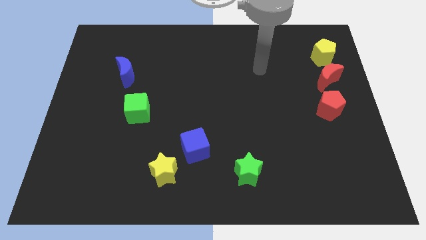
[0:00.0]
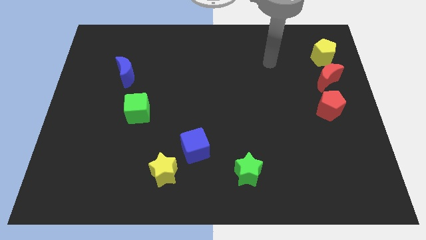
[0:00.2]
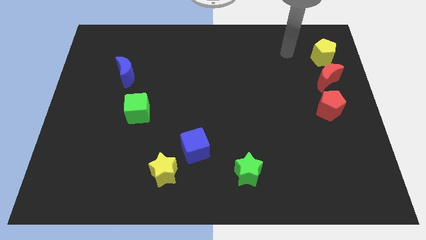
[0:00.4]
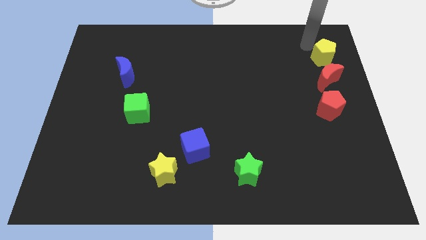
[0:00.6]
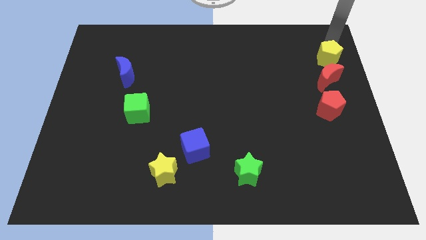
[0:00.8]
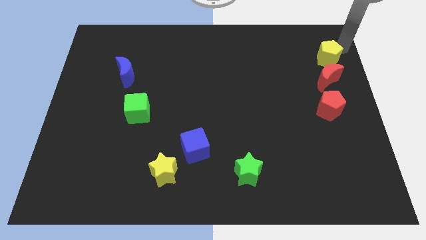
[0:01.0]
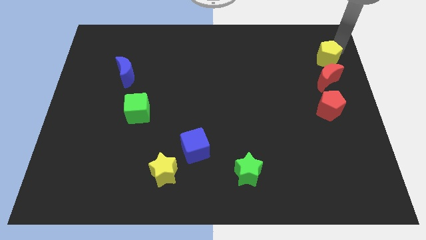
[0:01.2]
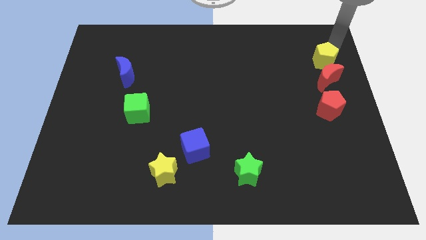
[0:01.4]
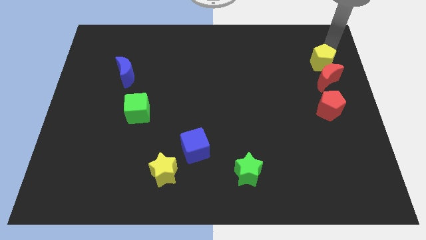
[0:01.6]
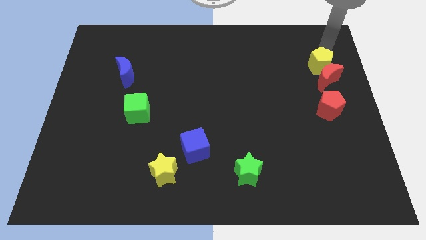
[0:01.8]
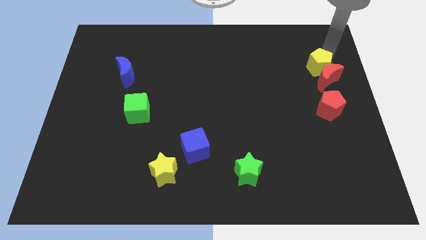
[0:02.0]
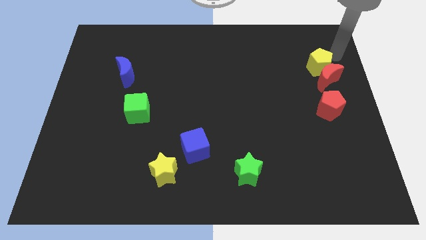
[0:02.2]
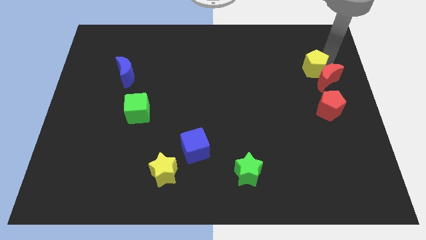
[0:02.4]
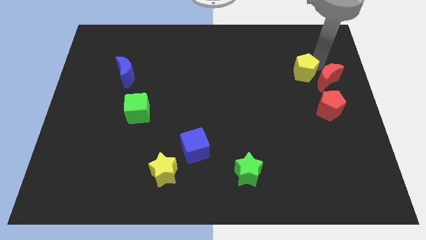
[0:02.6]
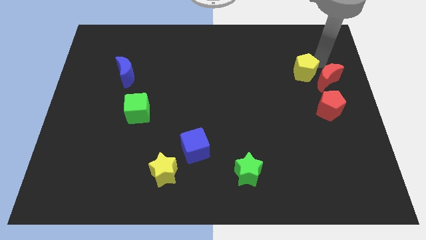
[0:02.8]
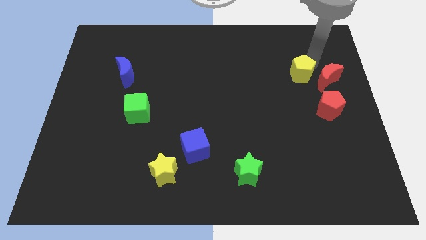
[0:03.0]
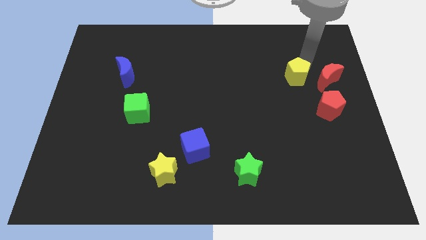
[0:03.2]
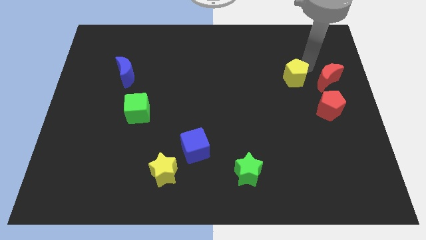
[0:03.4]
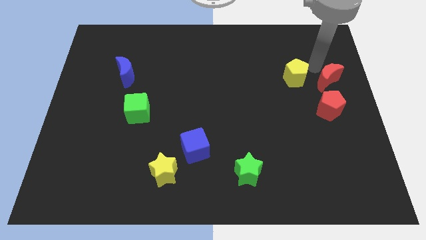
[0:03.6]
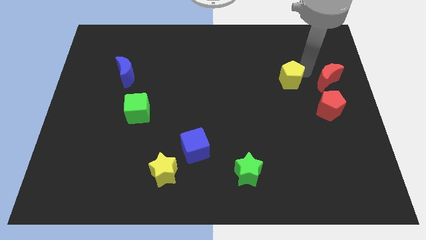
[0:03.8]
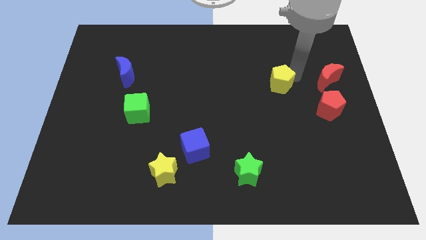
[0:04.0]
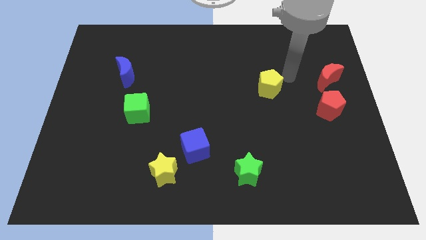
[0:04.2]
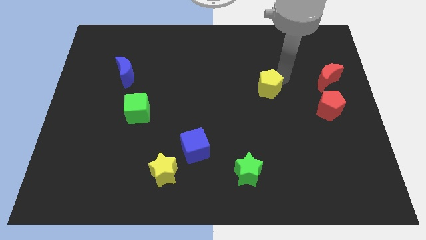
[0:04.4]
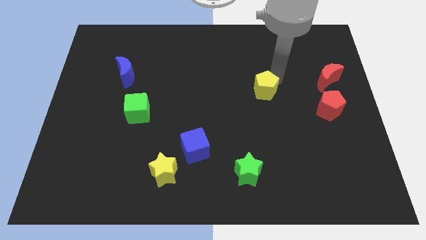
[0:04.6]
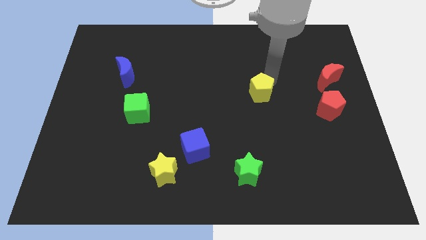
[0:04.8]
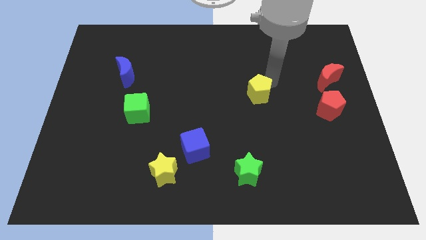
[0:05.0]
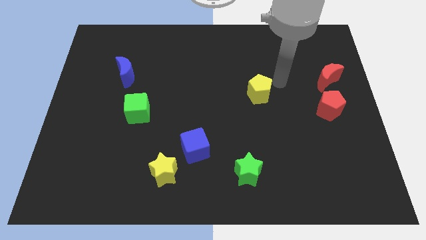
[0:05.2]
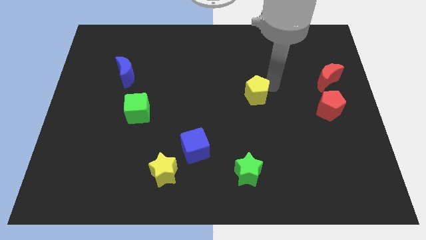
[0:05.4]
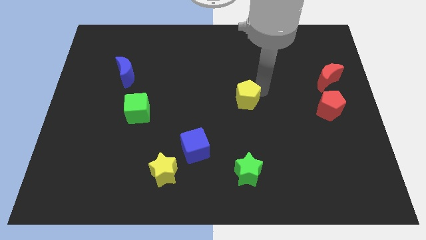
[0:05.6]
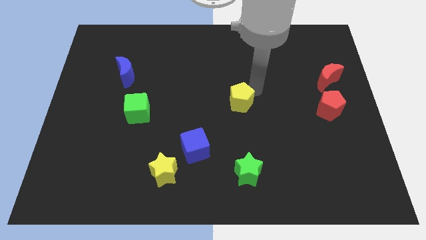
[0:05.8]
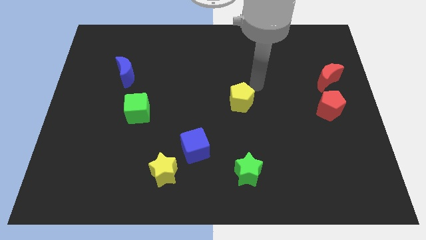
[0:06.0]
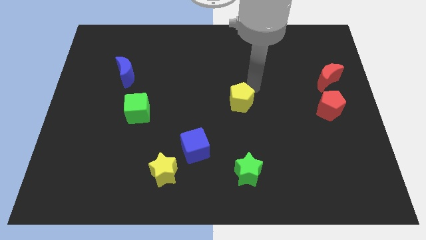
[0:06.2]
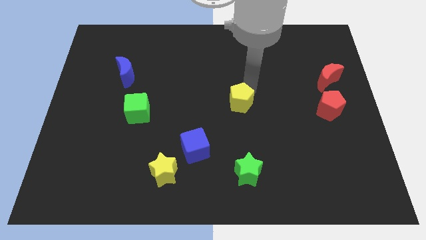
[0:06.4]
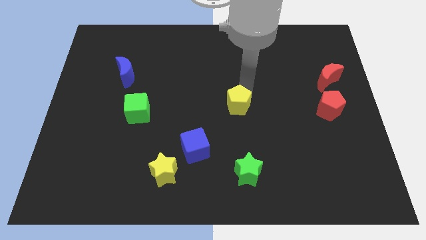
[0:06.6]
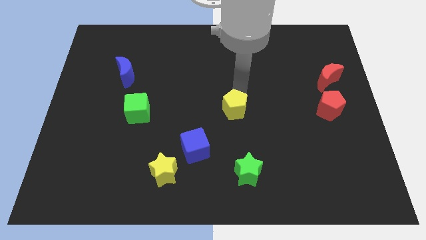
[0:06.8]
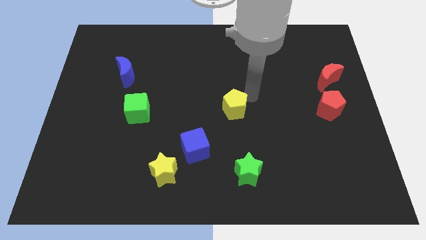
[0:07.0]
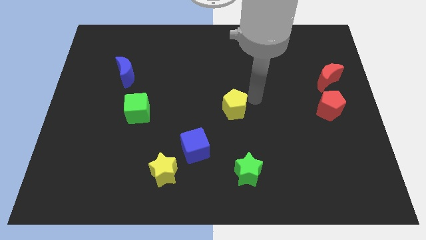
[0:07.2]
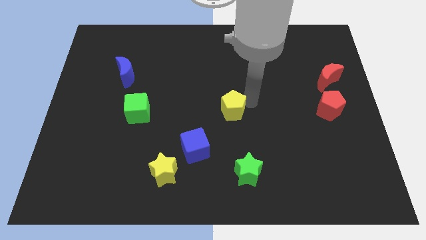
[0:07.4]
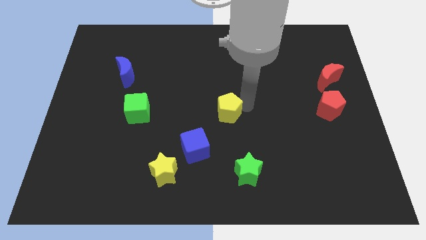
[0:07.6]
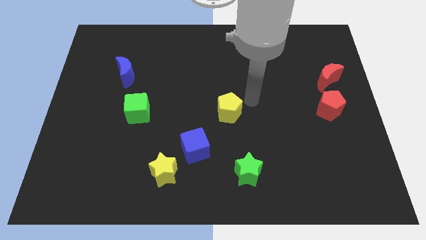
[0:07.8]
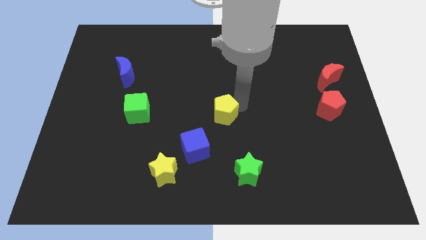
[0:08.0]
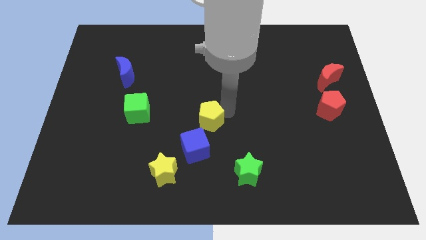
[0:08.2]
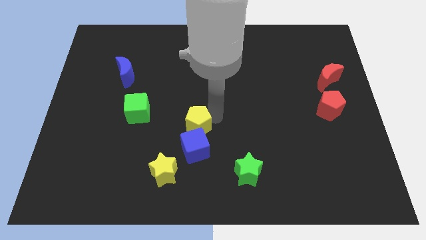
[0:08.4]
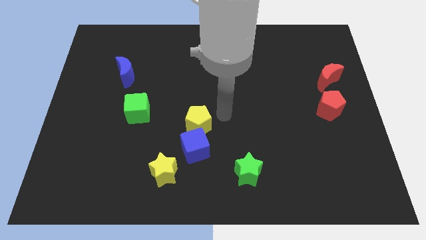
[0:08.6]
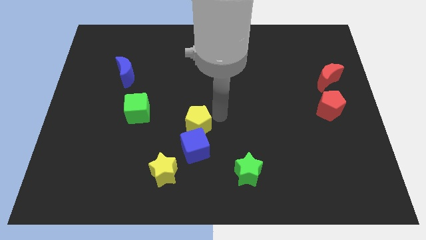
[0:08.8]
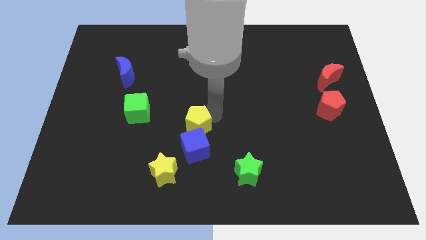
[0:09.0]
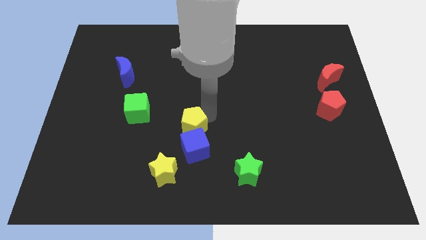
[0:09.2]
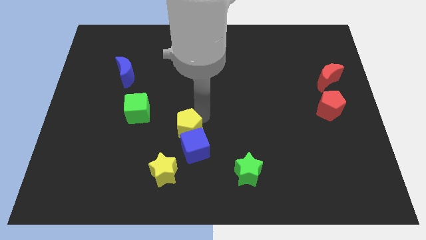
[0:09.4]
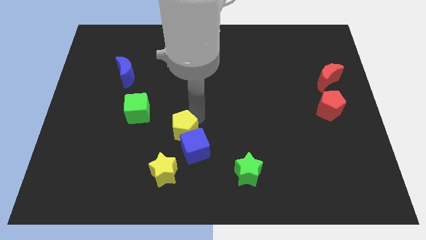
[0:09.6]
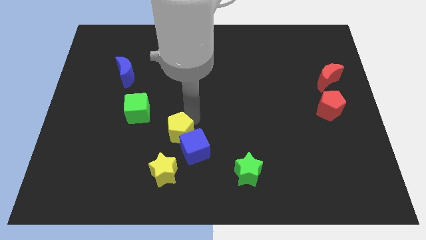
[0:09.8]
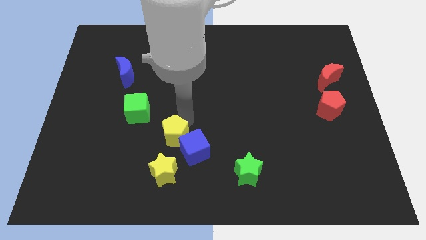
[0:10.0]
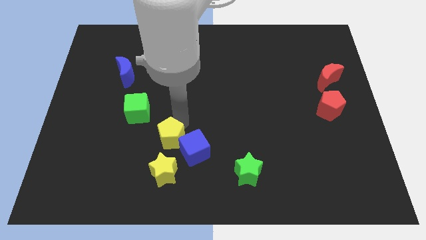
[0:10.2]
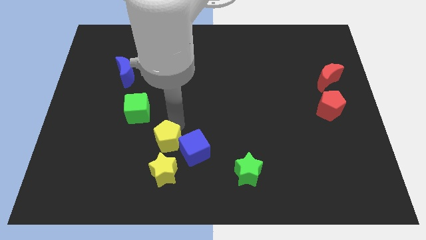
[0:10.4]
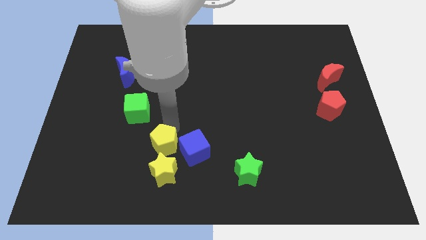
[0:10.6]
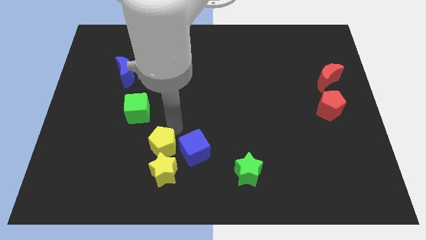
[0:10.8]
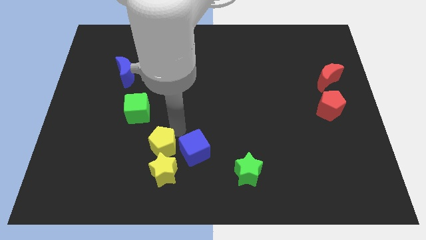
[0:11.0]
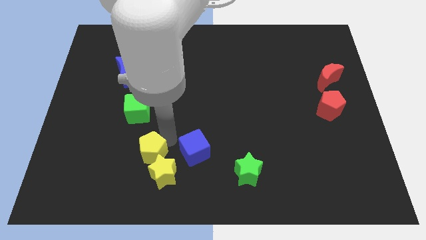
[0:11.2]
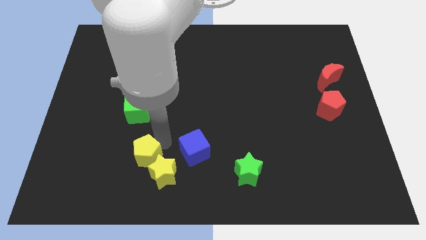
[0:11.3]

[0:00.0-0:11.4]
move the yellow pentagon left of the yellow star

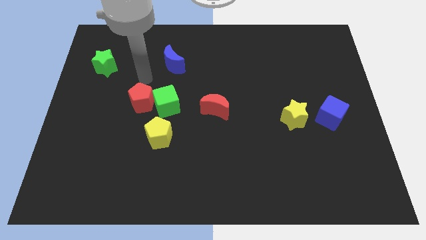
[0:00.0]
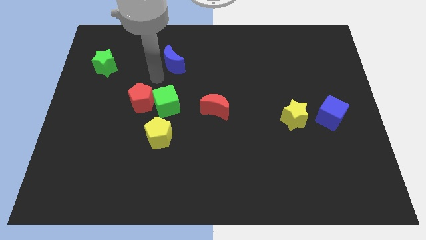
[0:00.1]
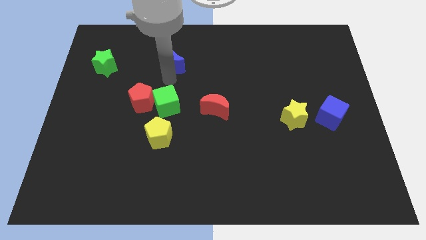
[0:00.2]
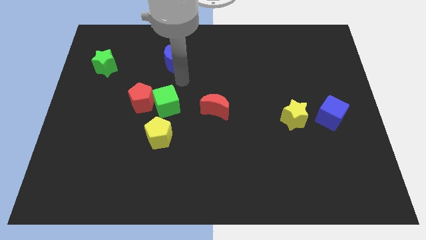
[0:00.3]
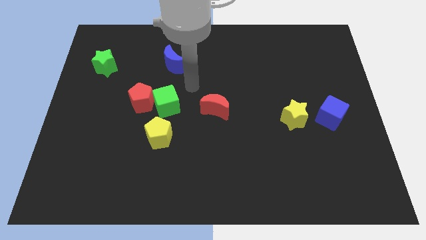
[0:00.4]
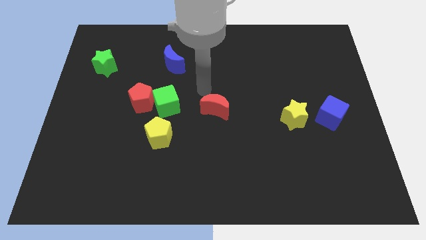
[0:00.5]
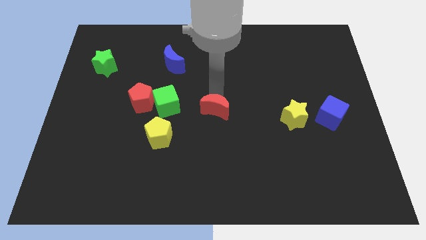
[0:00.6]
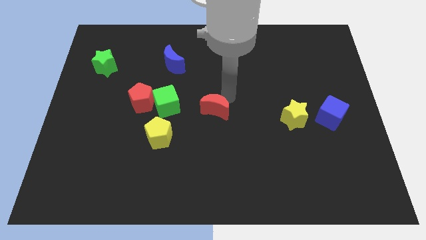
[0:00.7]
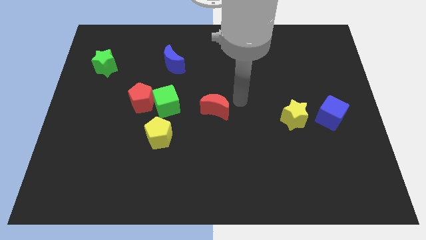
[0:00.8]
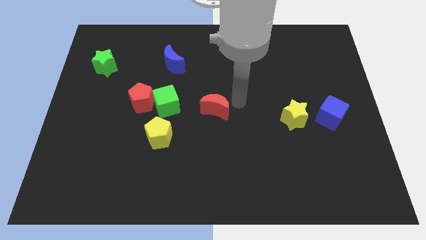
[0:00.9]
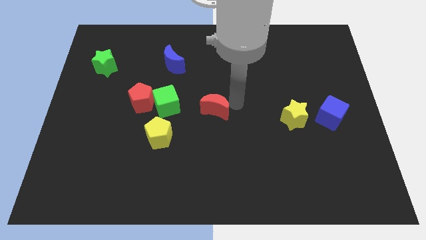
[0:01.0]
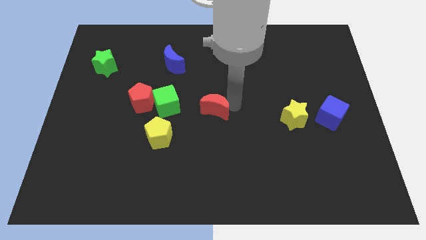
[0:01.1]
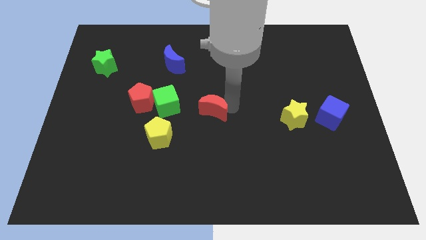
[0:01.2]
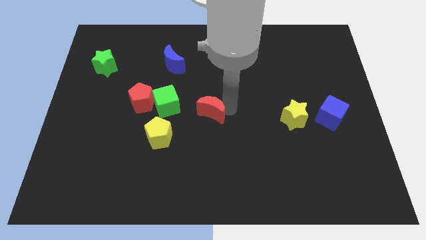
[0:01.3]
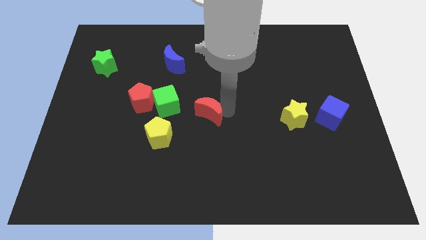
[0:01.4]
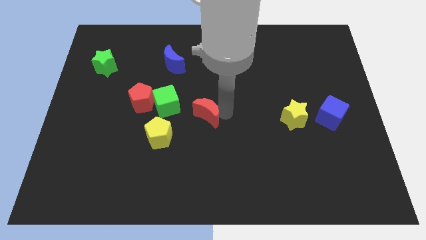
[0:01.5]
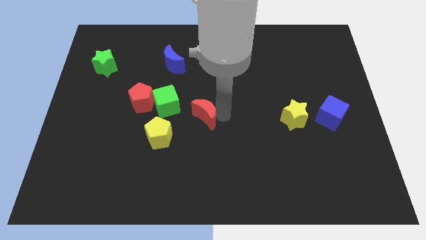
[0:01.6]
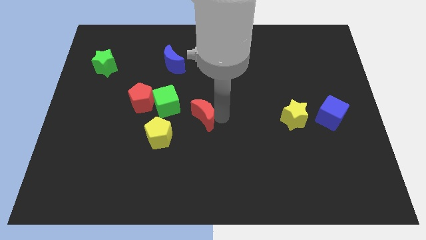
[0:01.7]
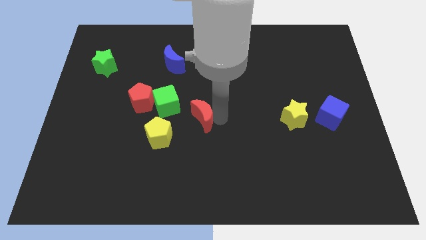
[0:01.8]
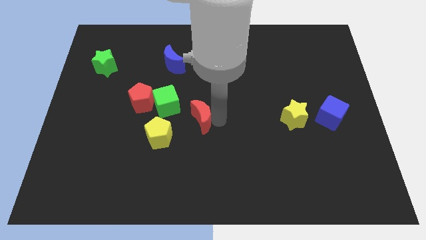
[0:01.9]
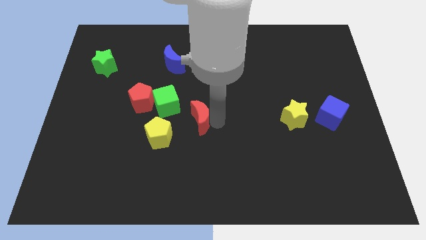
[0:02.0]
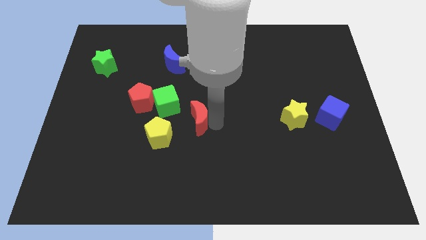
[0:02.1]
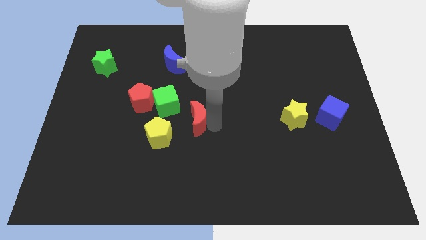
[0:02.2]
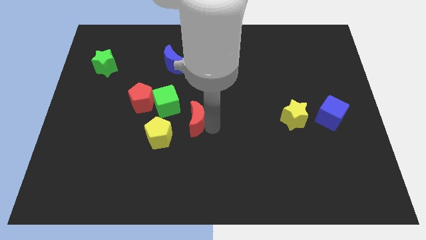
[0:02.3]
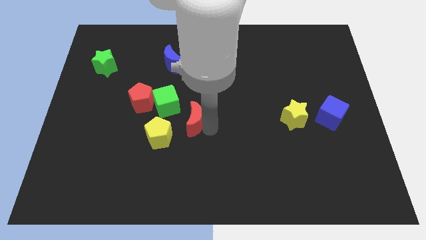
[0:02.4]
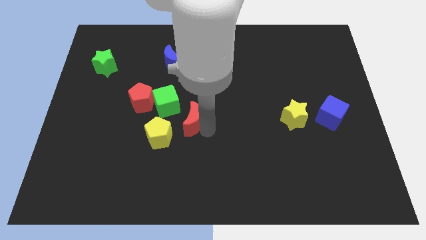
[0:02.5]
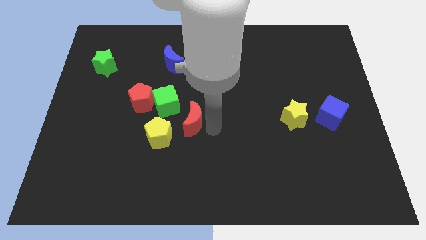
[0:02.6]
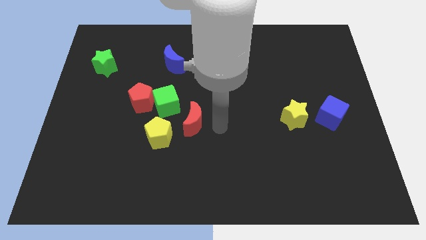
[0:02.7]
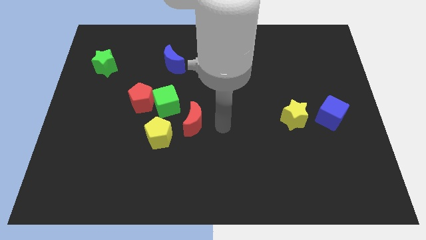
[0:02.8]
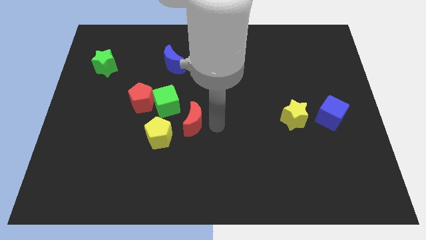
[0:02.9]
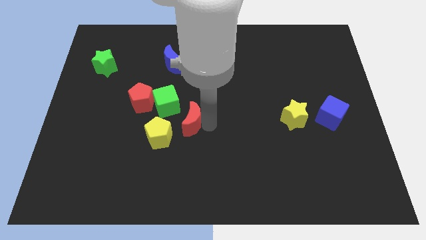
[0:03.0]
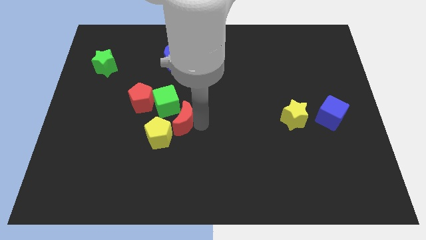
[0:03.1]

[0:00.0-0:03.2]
slide the red moon to the bottom right of the red pentagon
